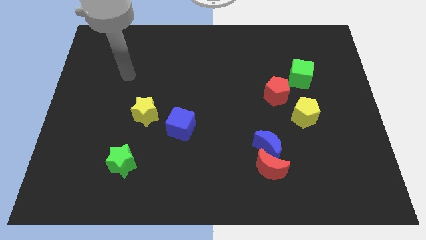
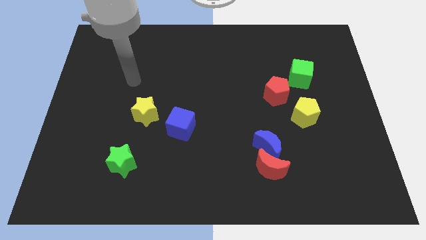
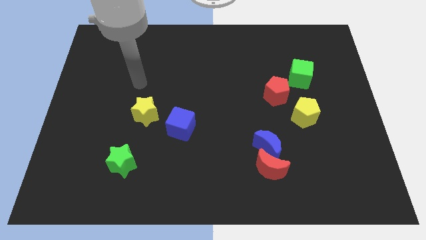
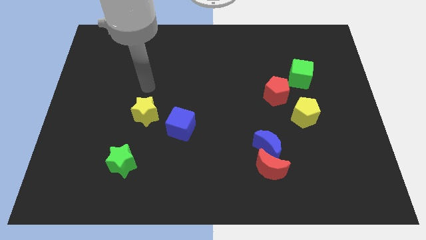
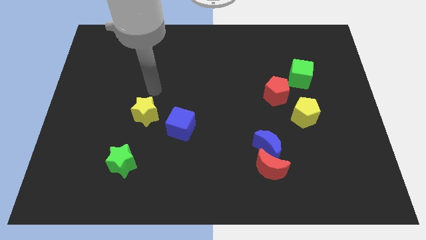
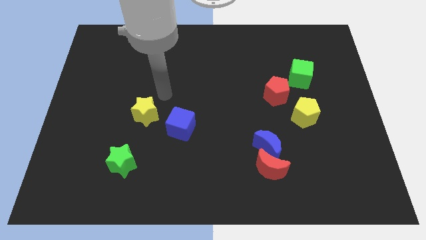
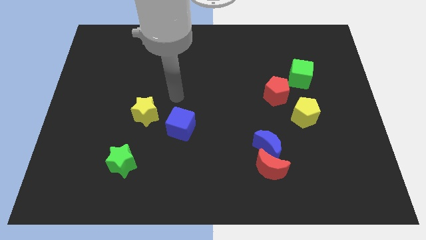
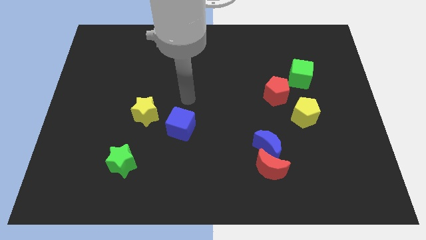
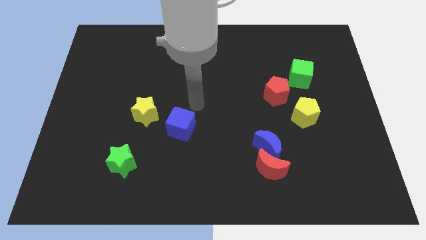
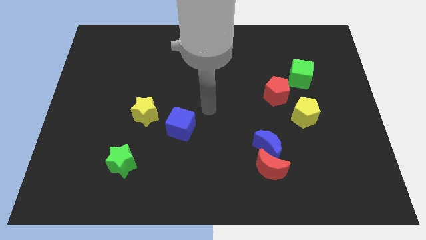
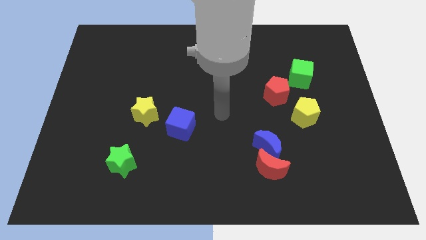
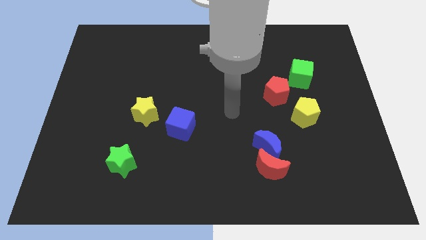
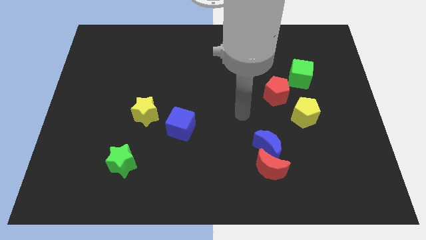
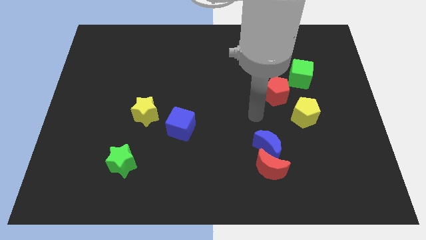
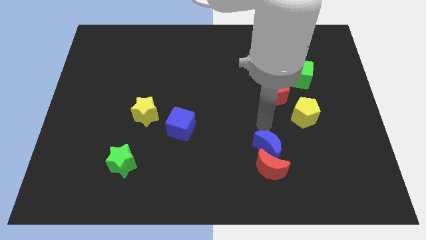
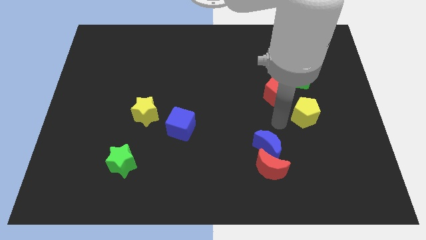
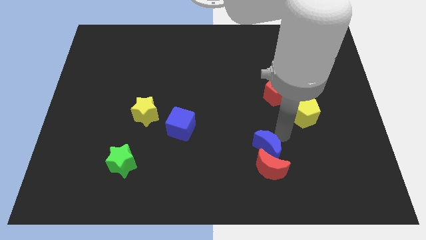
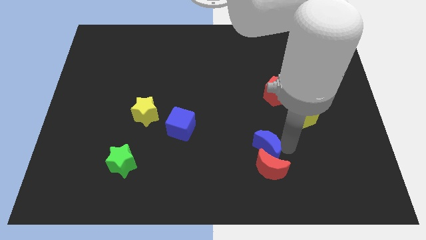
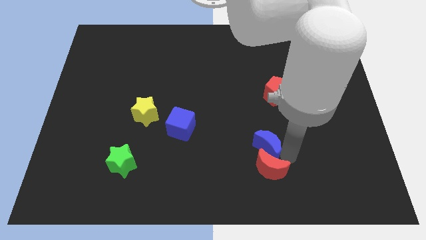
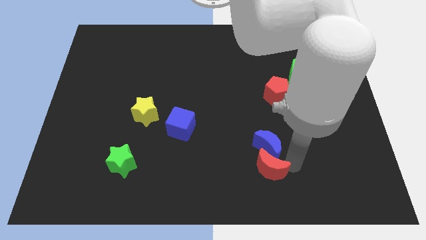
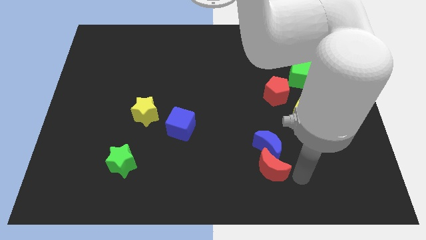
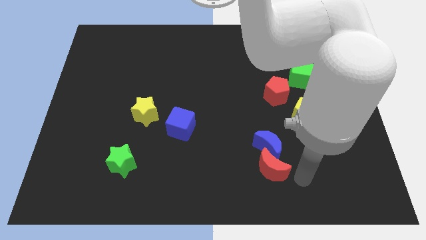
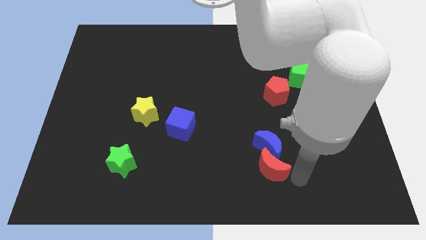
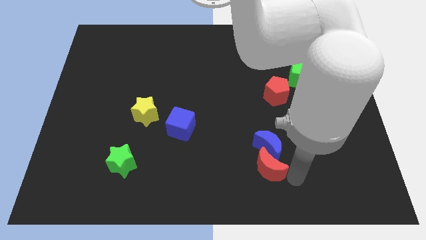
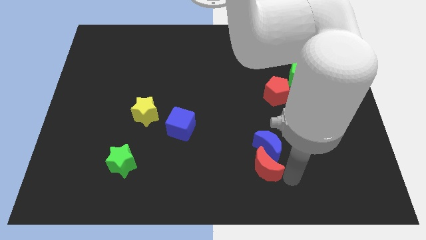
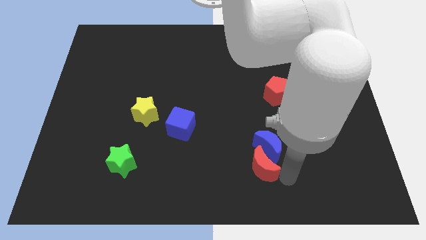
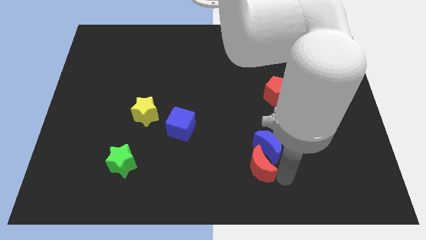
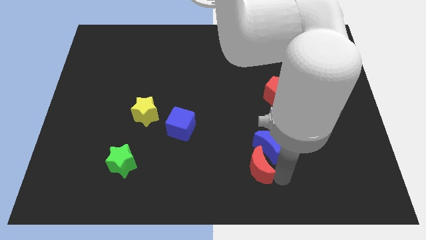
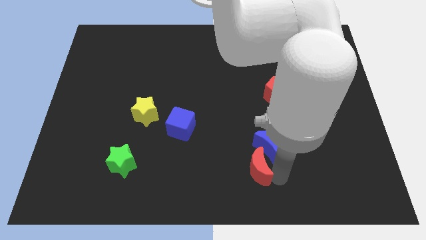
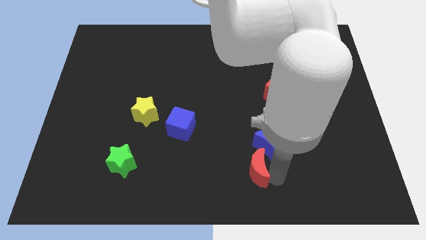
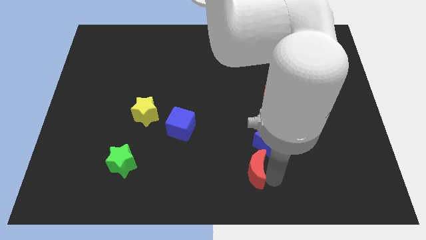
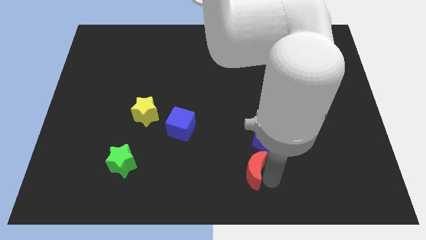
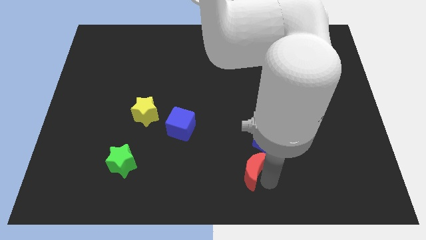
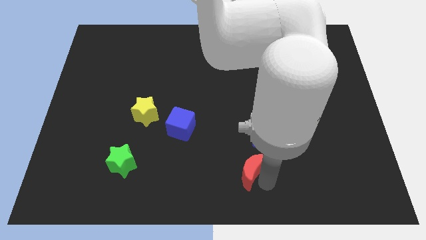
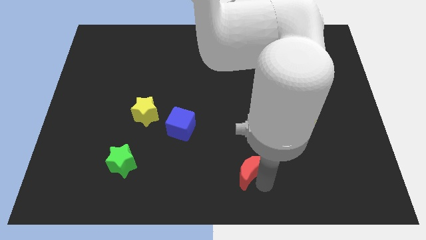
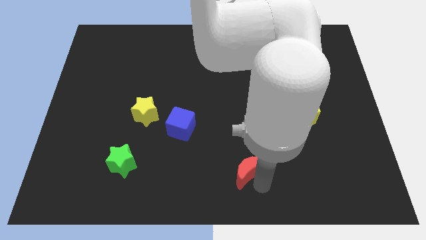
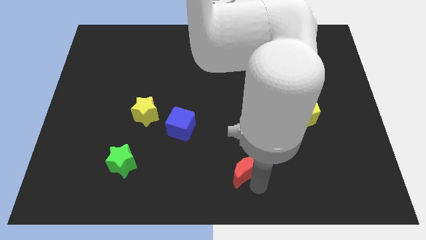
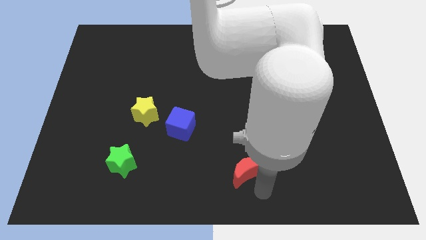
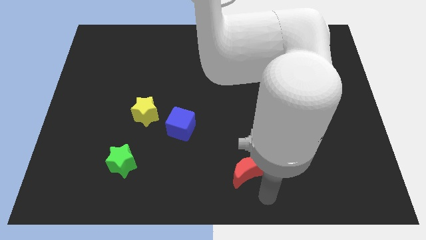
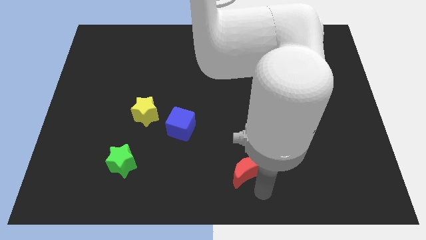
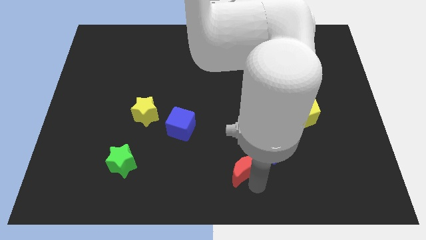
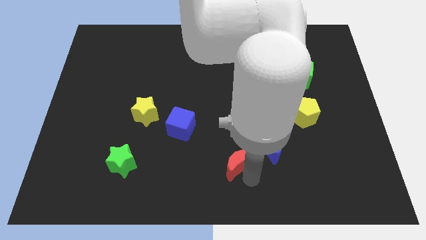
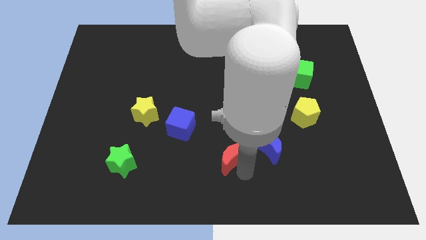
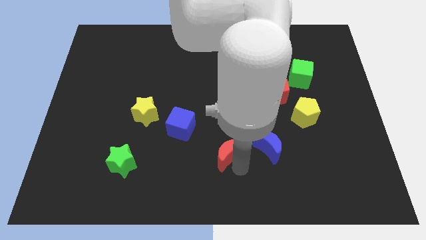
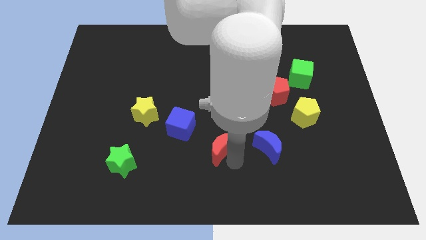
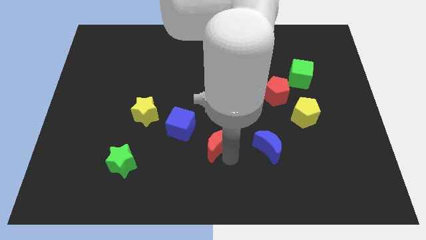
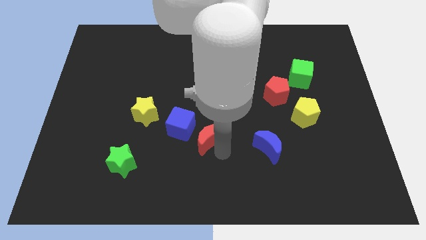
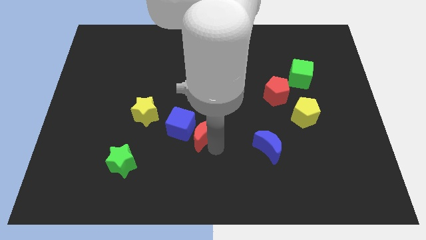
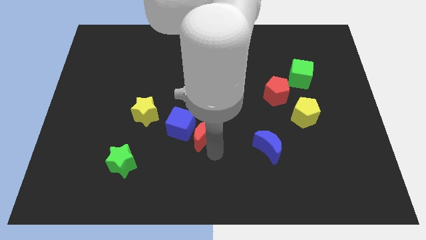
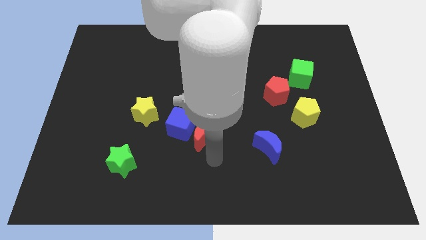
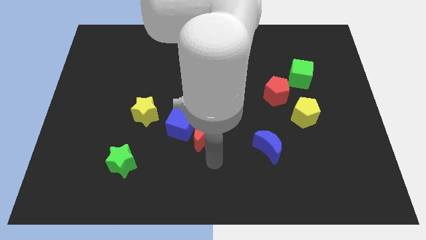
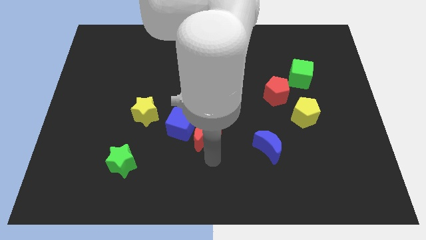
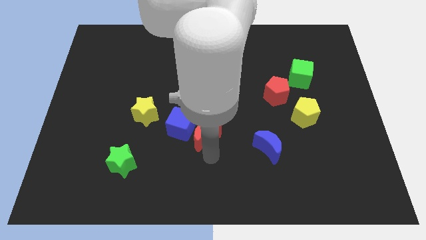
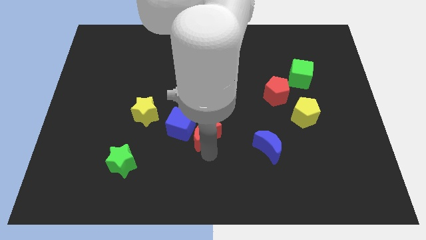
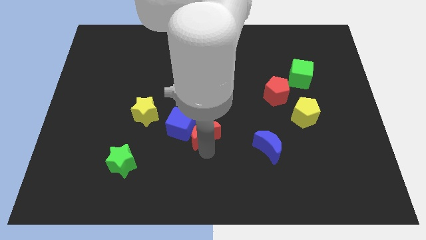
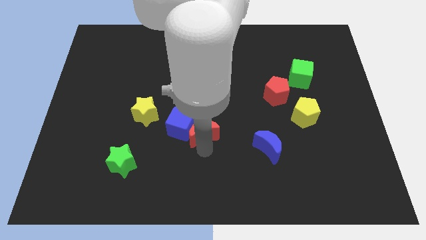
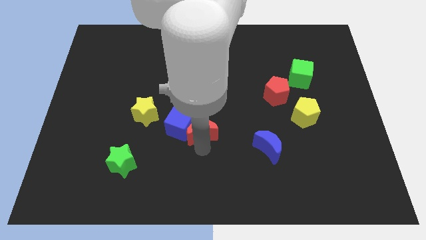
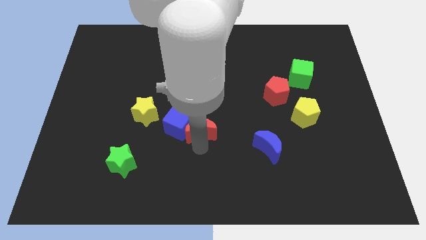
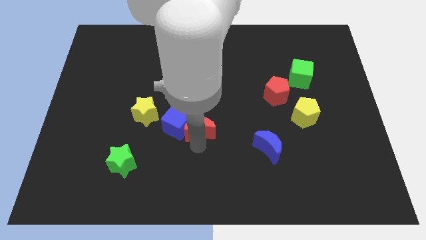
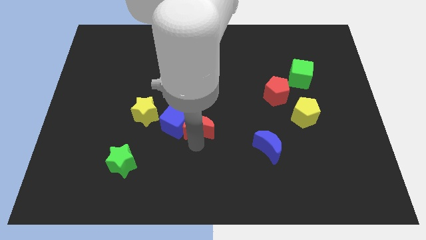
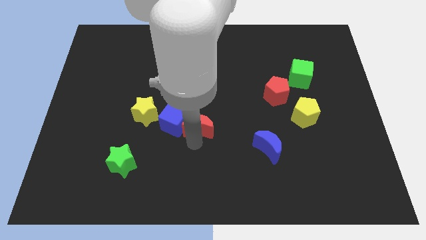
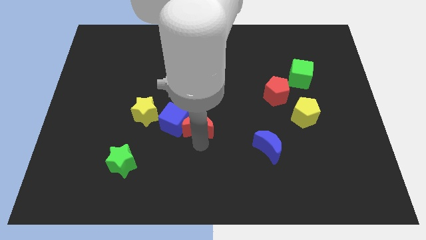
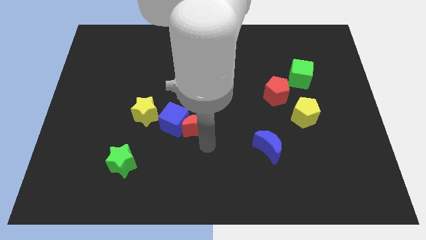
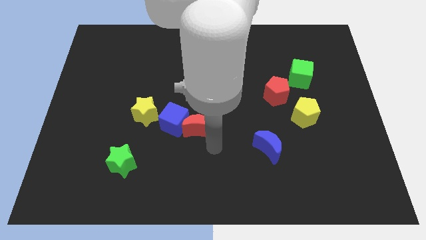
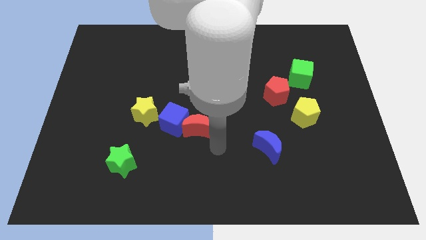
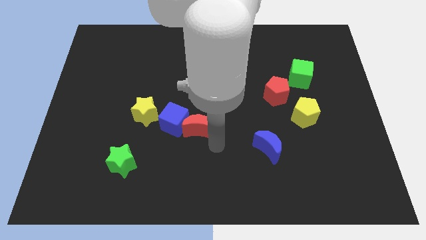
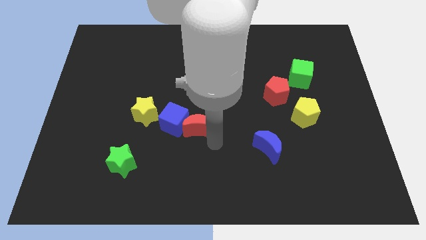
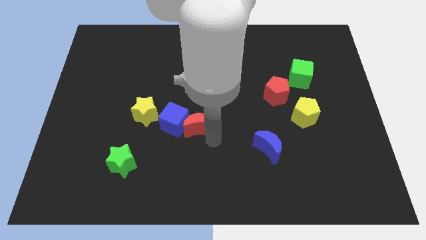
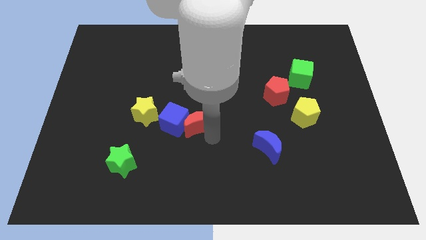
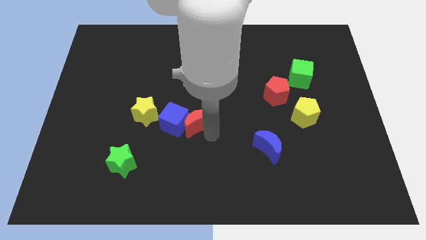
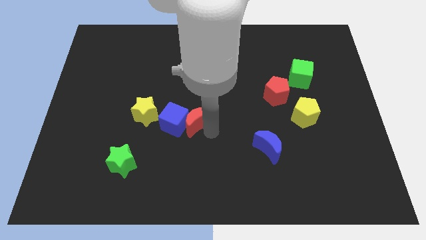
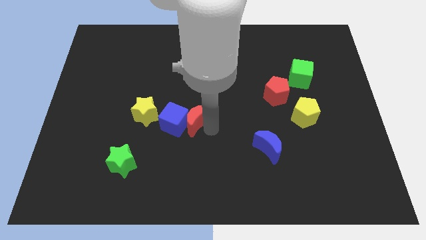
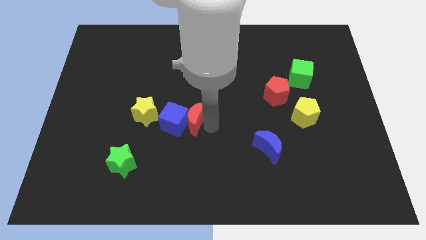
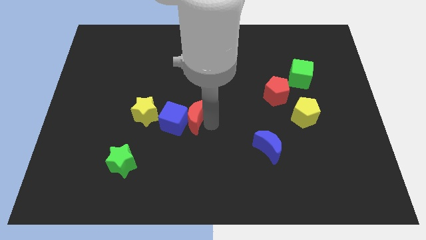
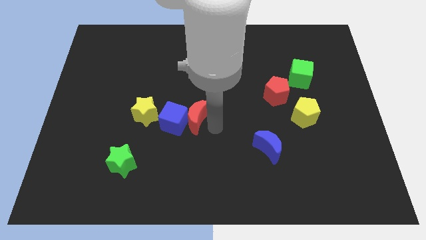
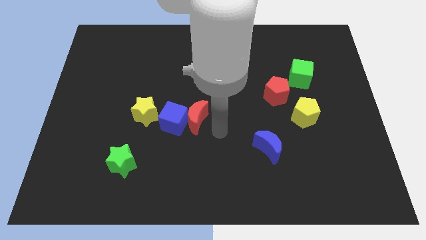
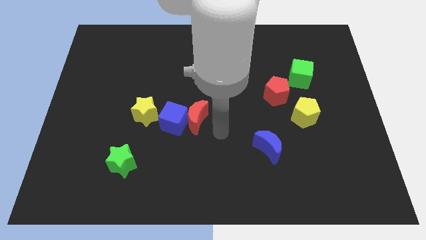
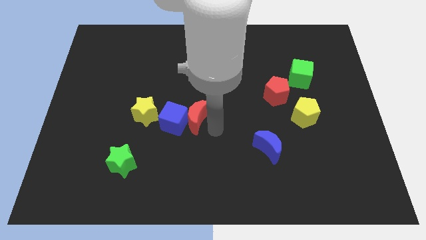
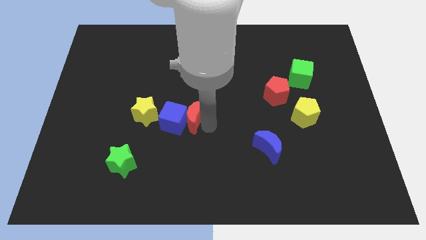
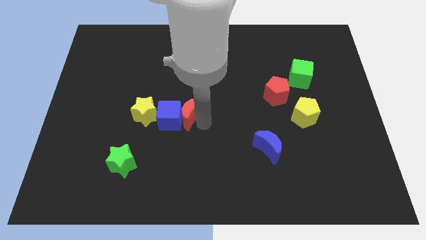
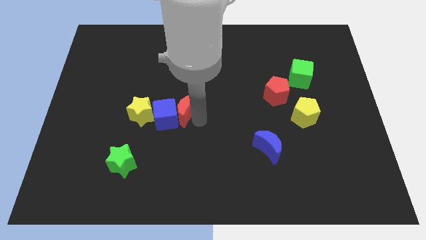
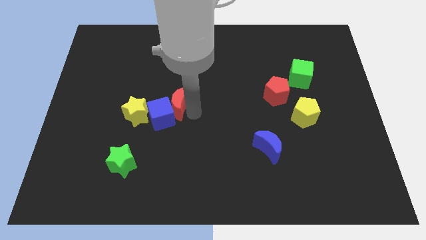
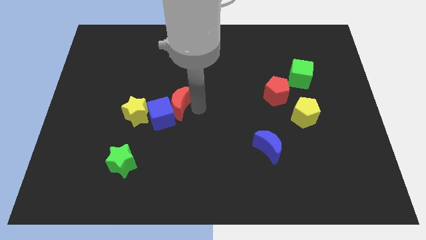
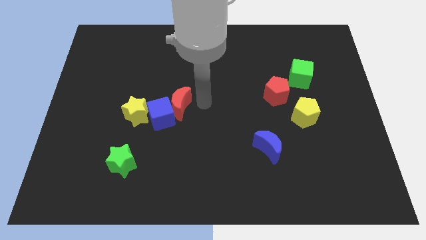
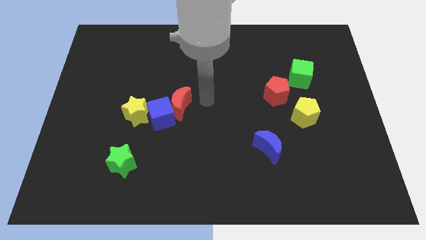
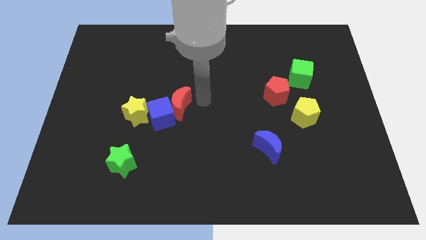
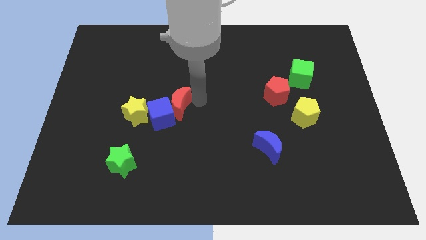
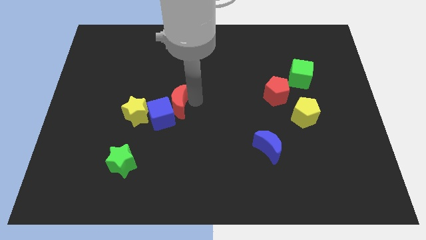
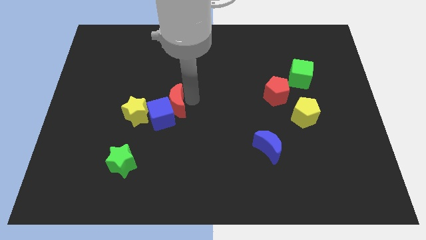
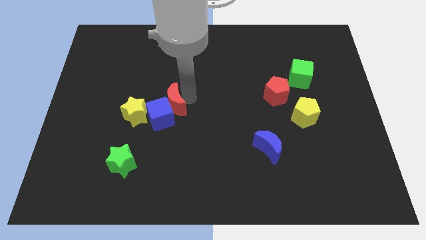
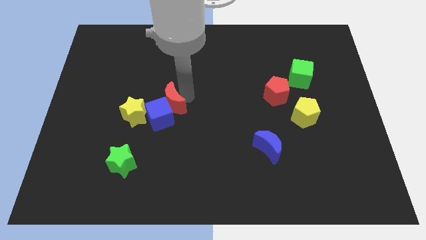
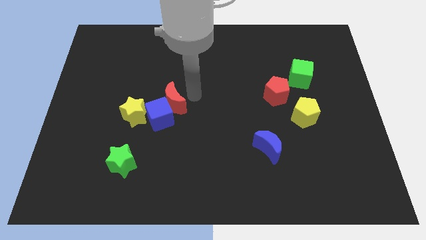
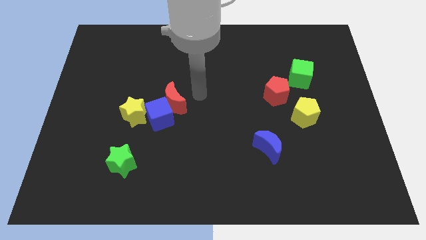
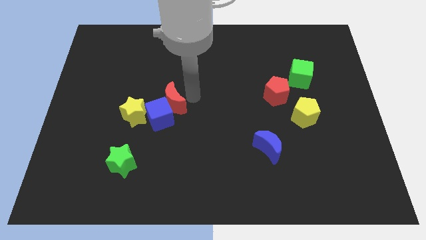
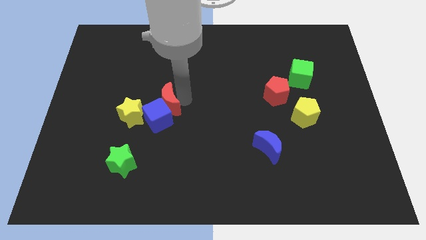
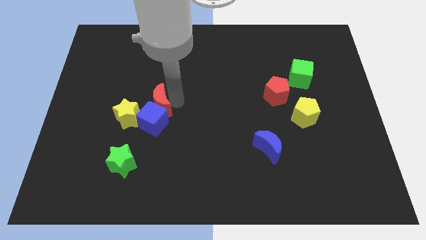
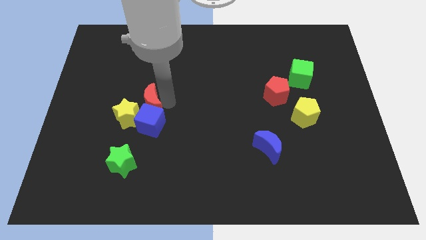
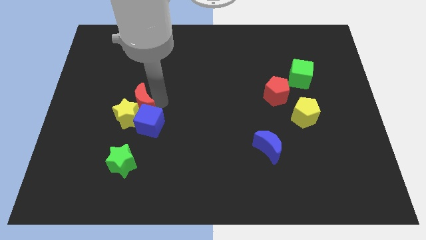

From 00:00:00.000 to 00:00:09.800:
push the red moon close to the yellow star
